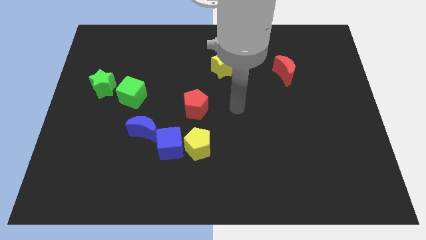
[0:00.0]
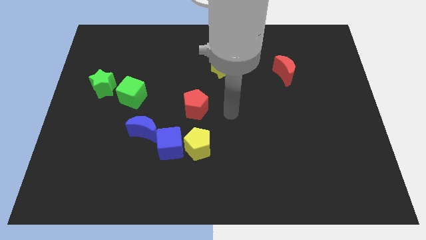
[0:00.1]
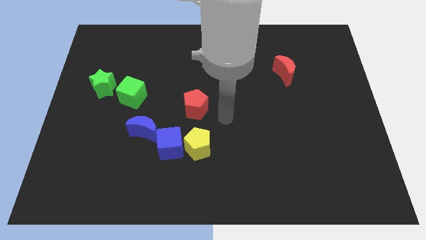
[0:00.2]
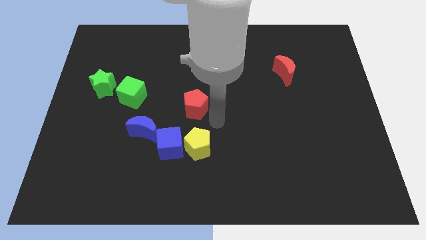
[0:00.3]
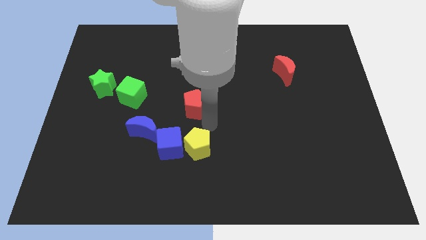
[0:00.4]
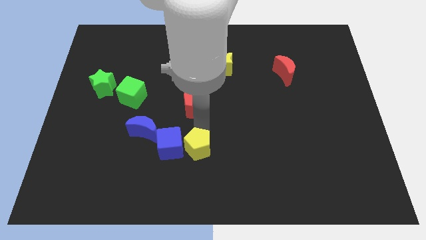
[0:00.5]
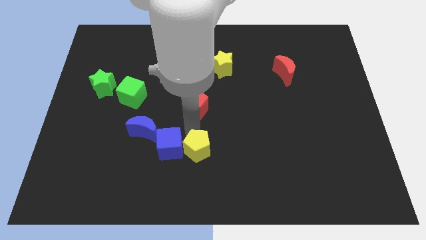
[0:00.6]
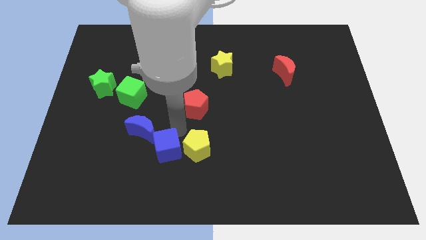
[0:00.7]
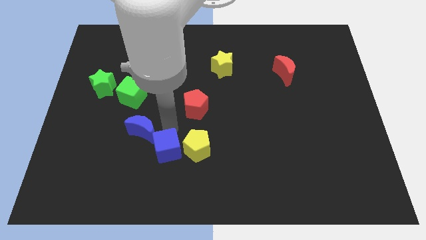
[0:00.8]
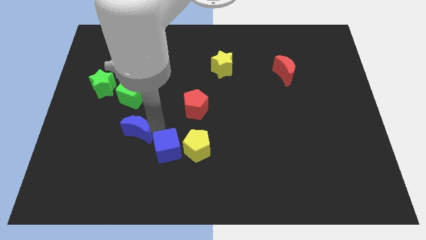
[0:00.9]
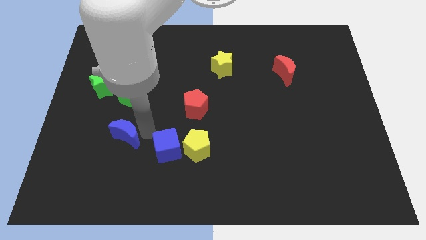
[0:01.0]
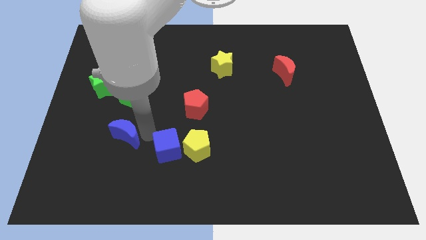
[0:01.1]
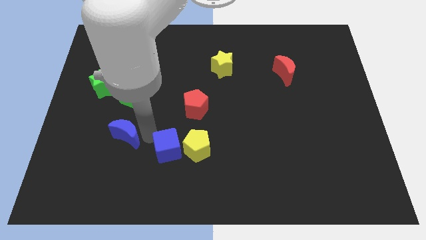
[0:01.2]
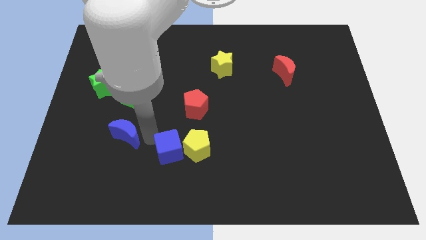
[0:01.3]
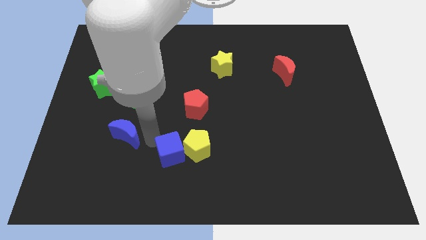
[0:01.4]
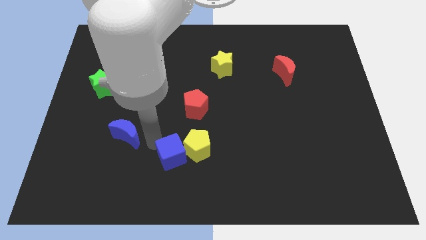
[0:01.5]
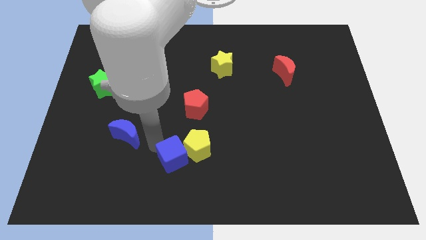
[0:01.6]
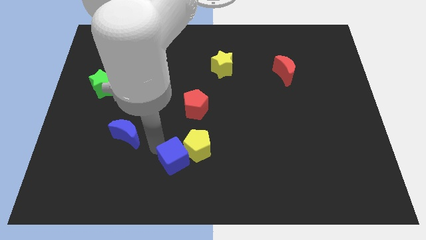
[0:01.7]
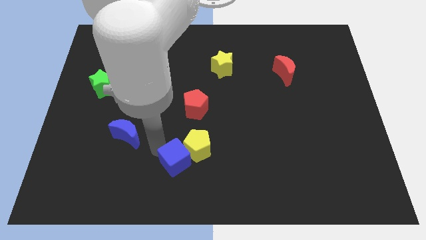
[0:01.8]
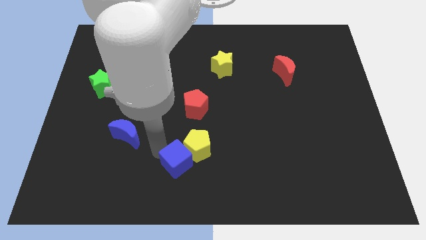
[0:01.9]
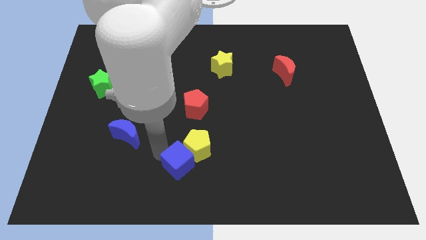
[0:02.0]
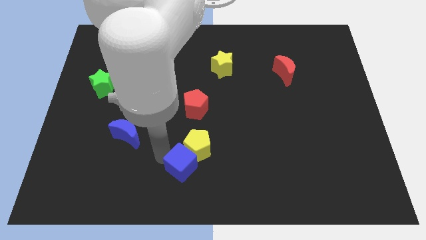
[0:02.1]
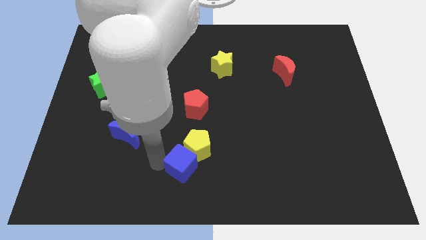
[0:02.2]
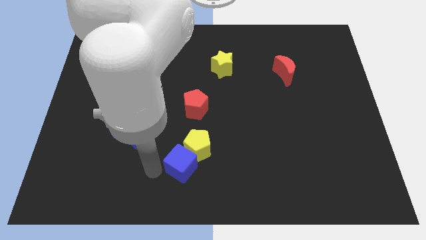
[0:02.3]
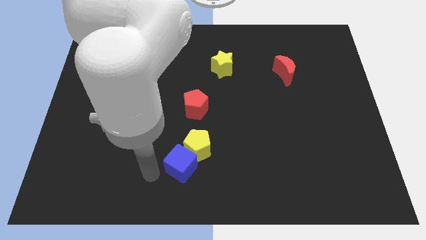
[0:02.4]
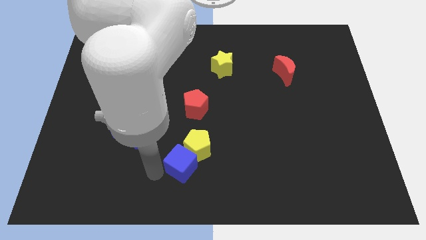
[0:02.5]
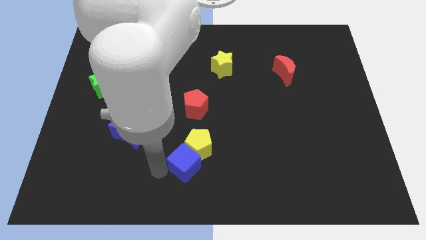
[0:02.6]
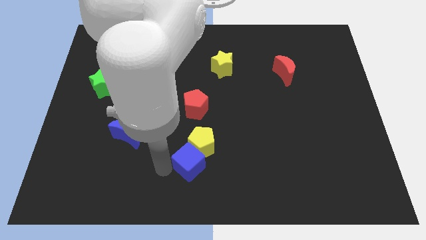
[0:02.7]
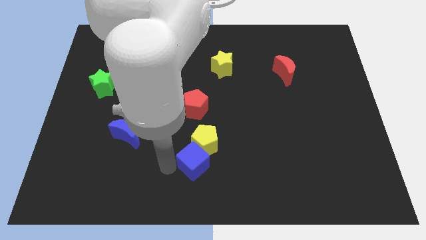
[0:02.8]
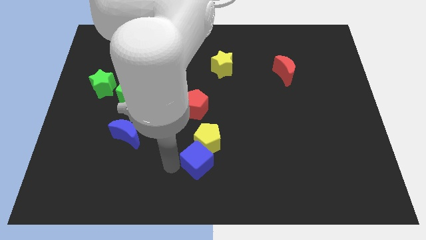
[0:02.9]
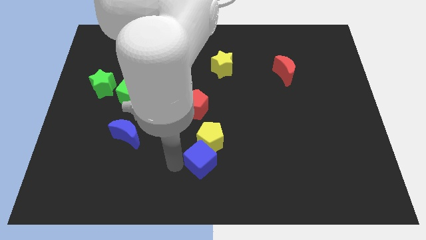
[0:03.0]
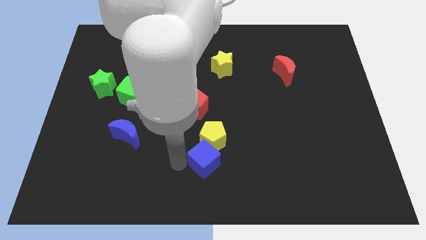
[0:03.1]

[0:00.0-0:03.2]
slightly move the blue cube right

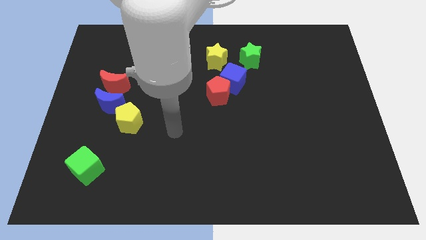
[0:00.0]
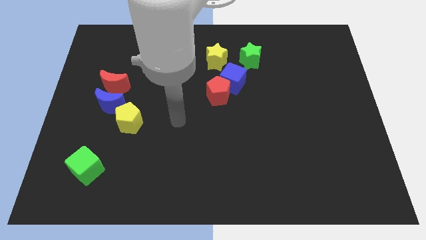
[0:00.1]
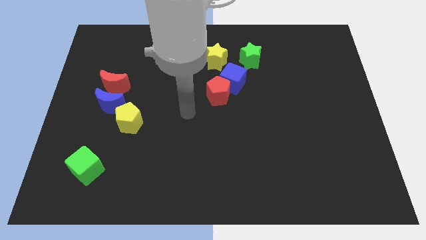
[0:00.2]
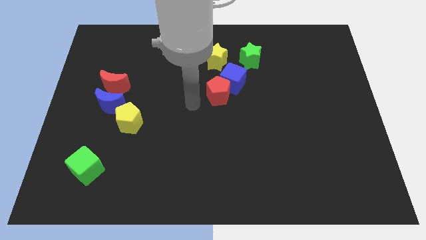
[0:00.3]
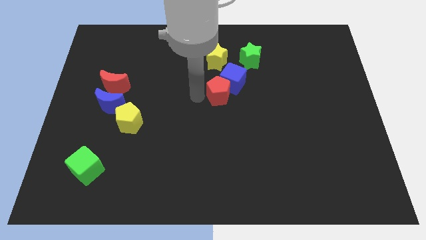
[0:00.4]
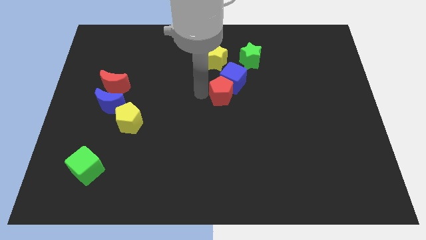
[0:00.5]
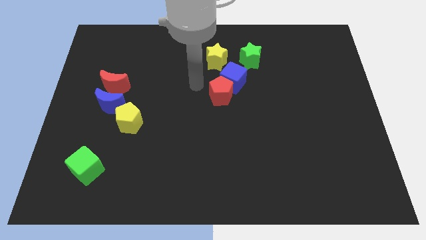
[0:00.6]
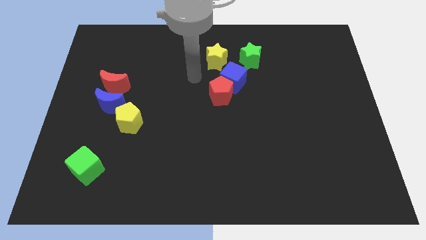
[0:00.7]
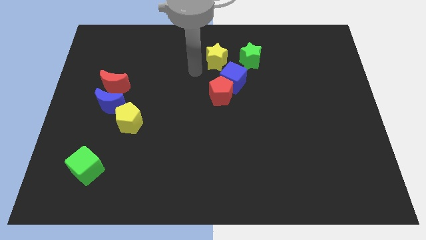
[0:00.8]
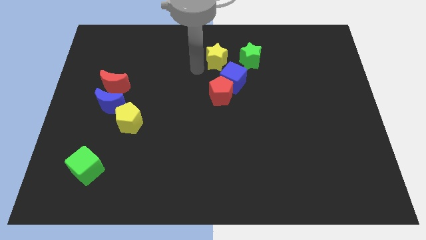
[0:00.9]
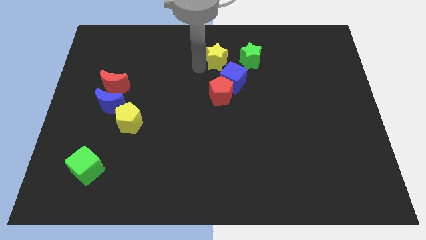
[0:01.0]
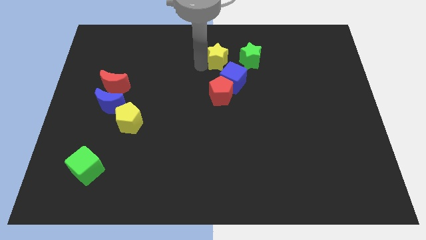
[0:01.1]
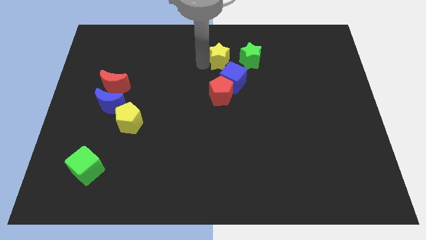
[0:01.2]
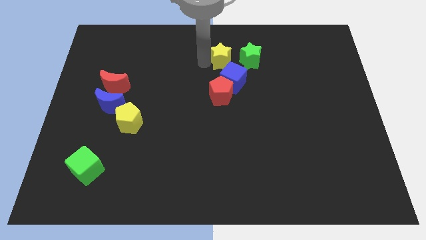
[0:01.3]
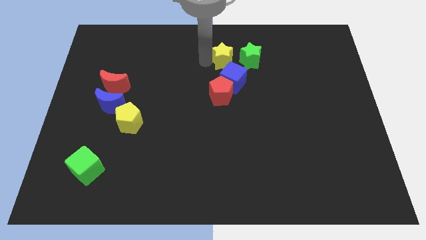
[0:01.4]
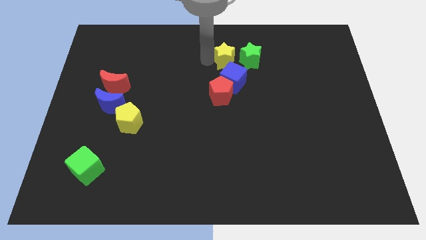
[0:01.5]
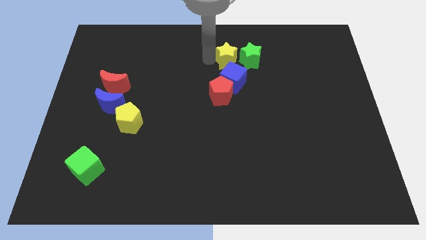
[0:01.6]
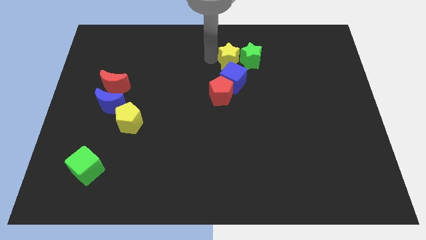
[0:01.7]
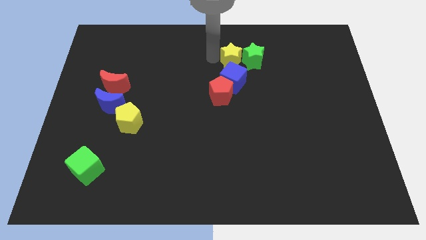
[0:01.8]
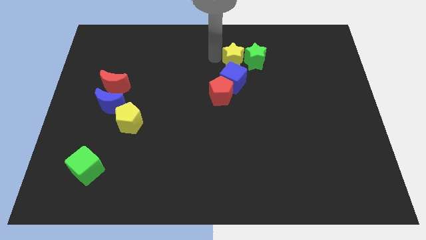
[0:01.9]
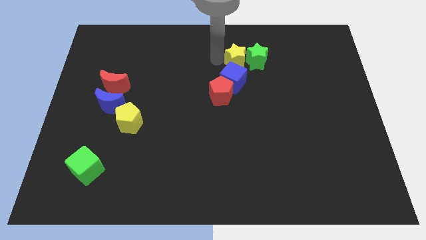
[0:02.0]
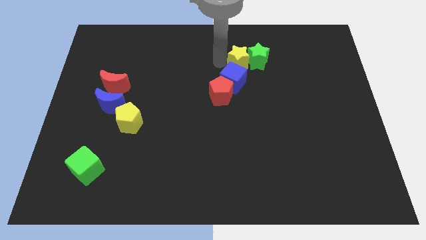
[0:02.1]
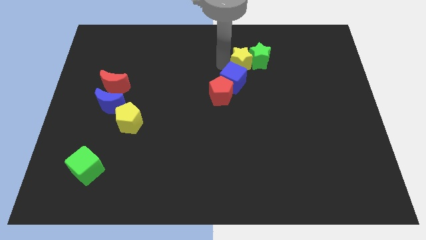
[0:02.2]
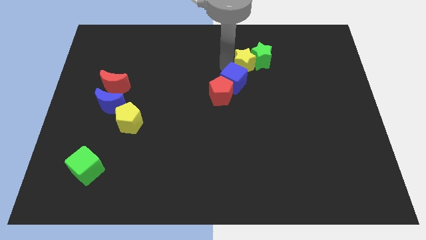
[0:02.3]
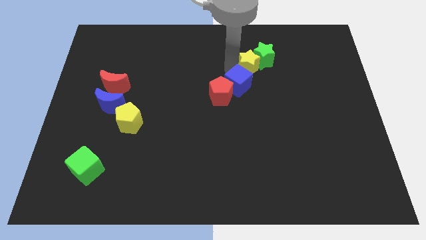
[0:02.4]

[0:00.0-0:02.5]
slightly slide the yellow star down and right

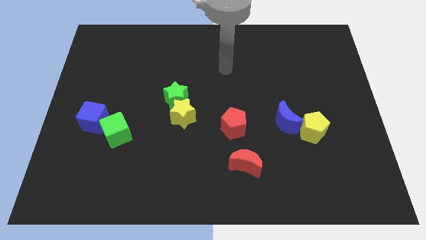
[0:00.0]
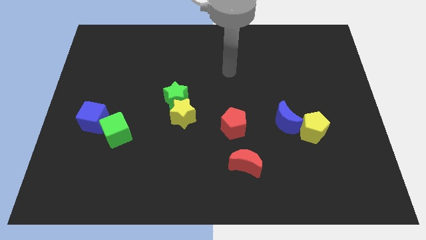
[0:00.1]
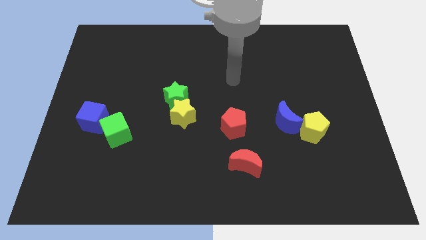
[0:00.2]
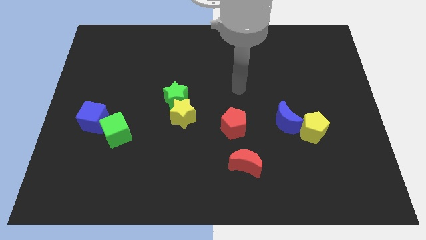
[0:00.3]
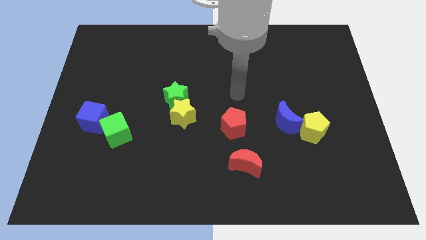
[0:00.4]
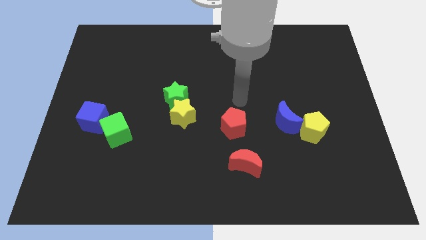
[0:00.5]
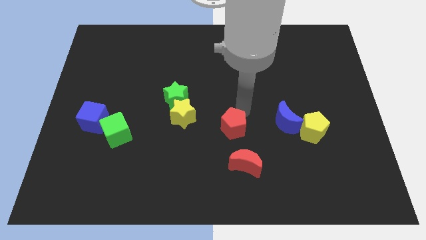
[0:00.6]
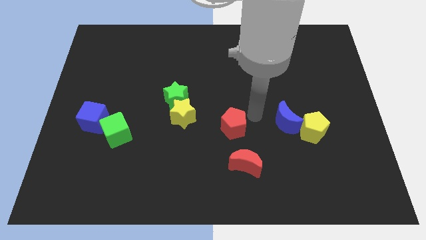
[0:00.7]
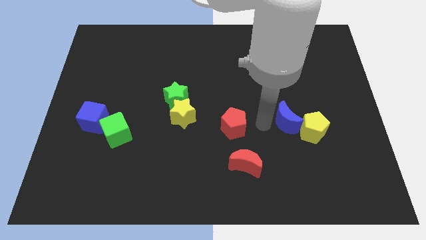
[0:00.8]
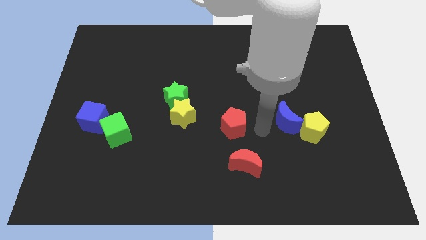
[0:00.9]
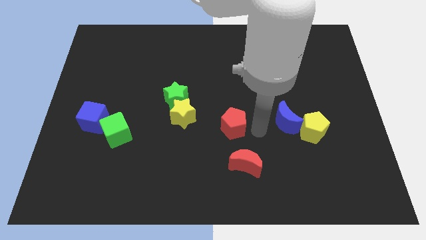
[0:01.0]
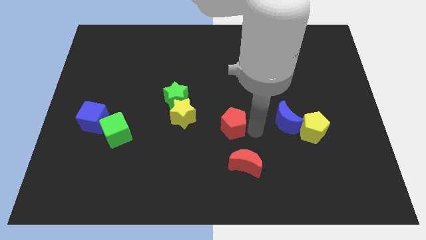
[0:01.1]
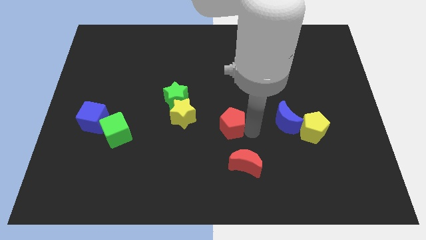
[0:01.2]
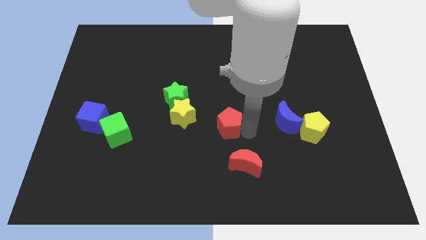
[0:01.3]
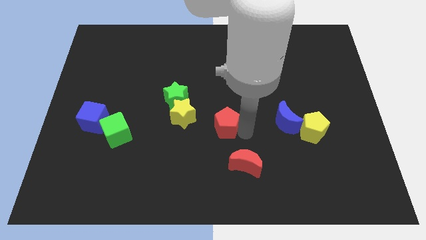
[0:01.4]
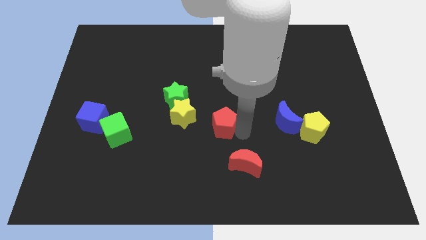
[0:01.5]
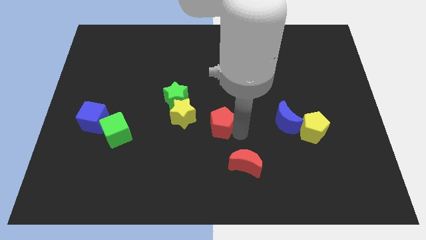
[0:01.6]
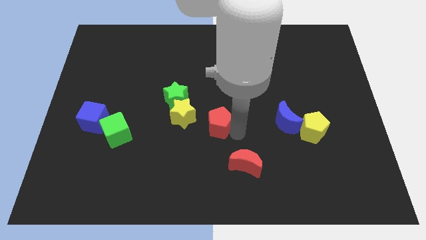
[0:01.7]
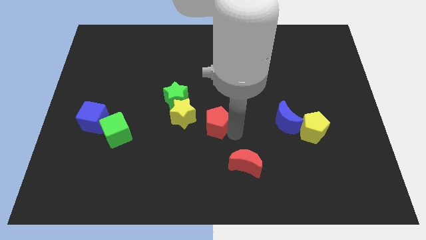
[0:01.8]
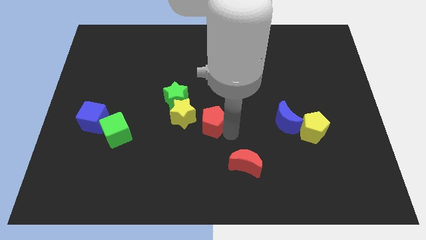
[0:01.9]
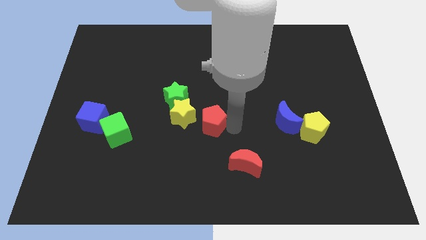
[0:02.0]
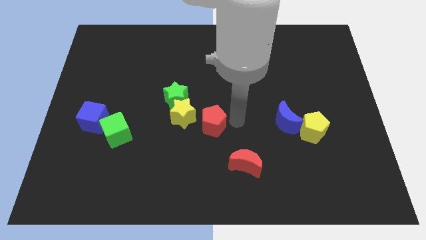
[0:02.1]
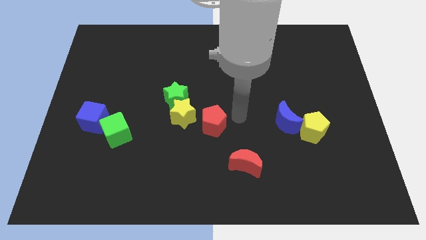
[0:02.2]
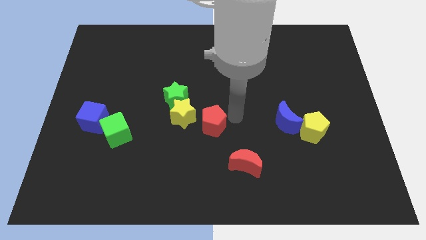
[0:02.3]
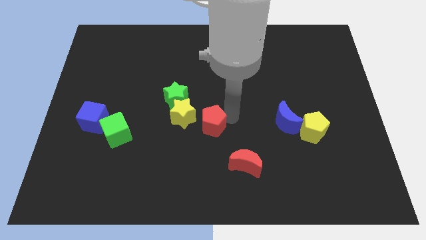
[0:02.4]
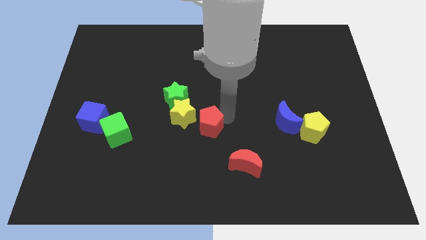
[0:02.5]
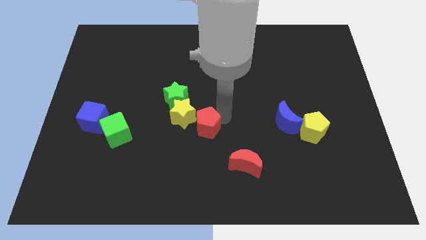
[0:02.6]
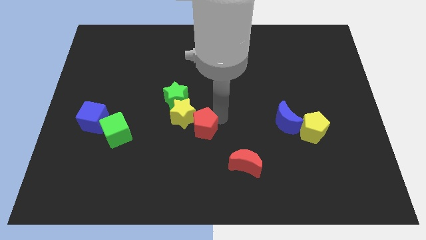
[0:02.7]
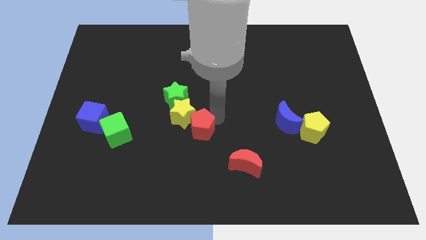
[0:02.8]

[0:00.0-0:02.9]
move the red pentagon somewhat left

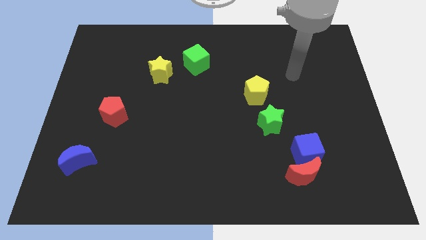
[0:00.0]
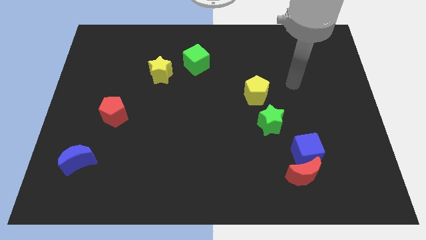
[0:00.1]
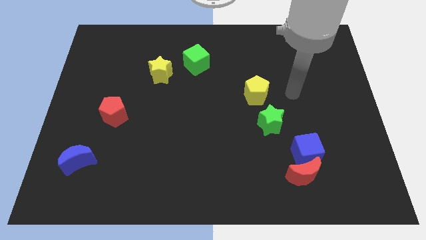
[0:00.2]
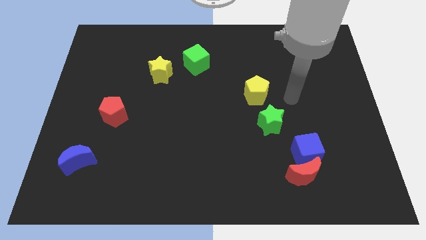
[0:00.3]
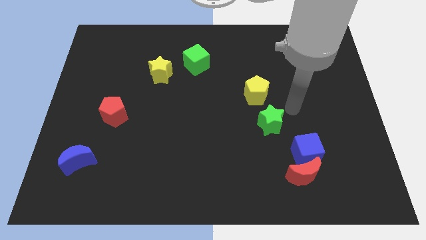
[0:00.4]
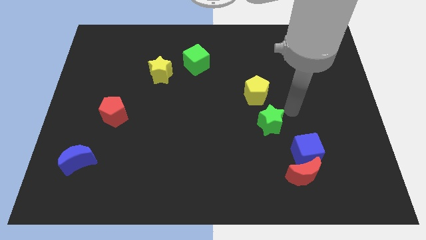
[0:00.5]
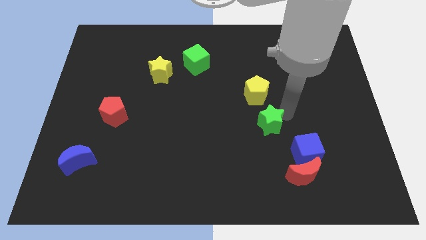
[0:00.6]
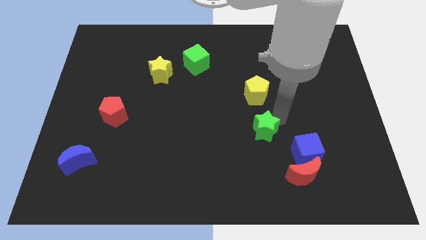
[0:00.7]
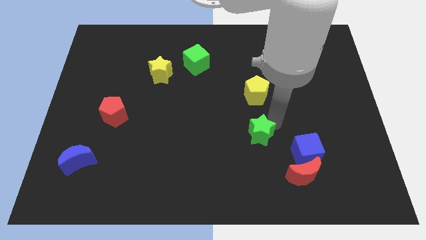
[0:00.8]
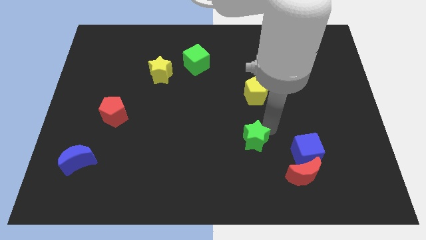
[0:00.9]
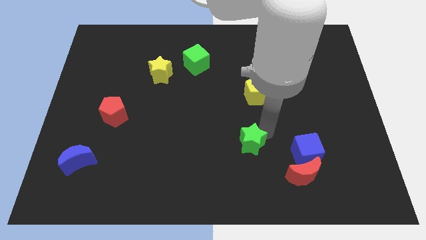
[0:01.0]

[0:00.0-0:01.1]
slide the green star downwards and then to the left a bit
